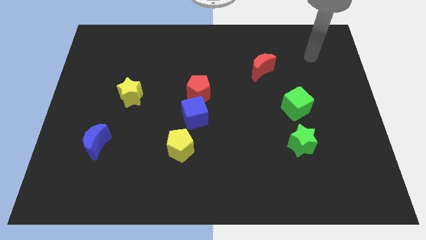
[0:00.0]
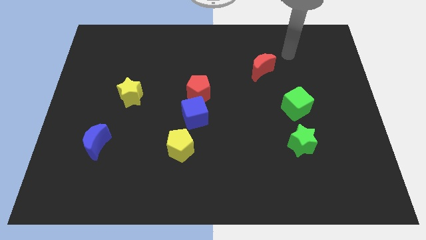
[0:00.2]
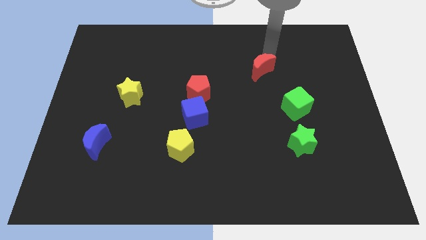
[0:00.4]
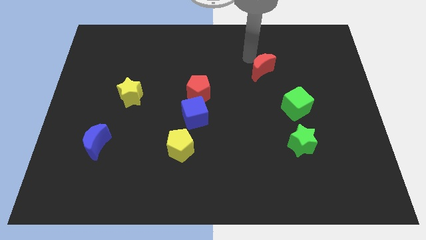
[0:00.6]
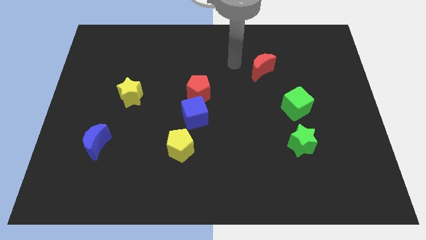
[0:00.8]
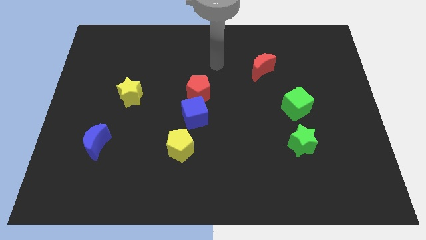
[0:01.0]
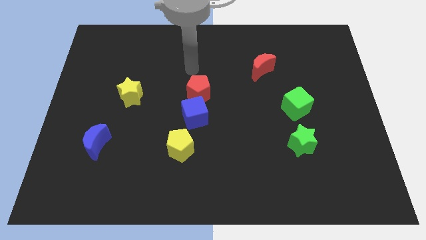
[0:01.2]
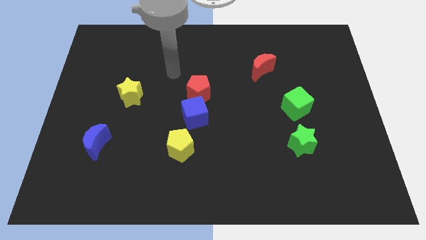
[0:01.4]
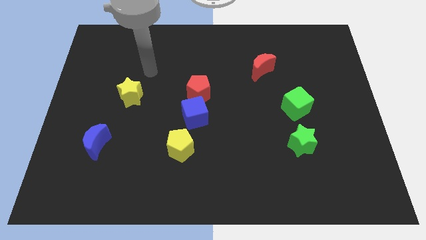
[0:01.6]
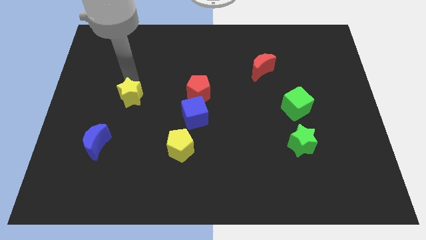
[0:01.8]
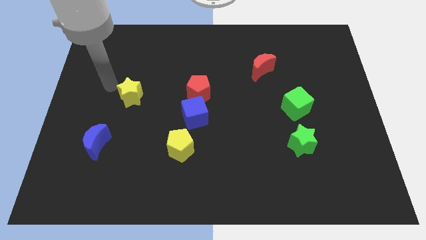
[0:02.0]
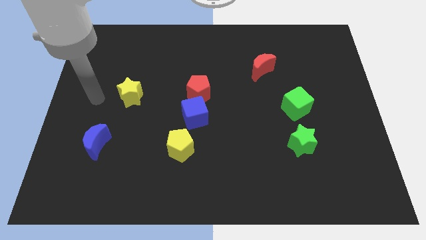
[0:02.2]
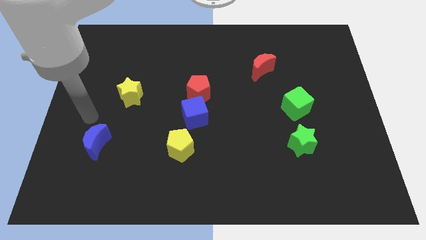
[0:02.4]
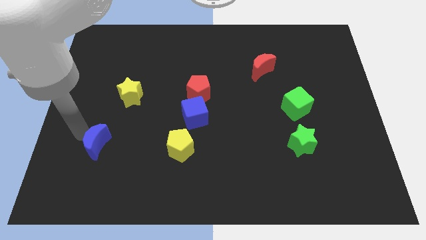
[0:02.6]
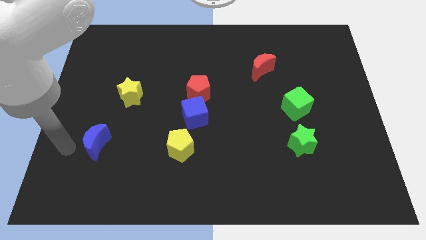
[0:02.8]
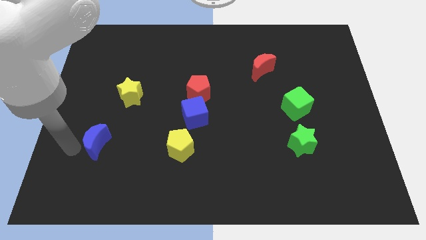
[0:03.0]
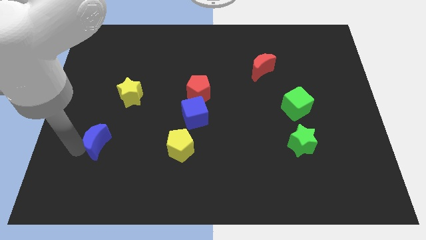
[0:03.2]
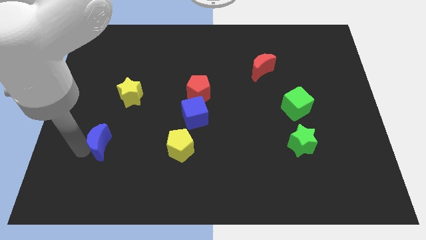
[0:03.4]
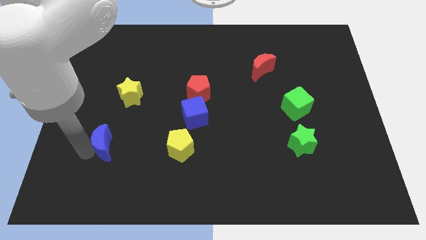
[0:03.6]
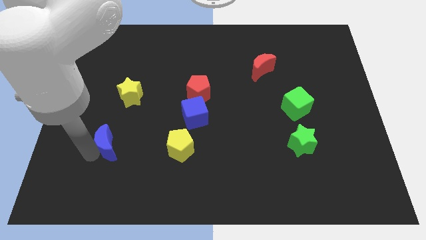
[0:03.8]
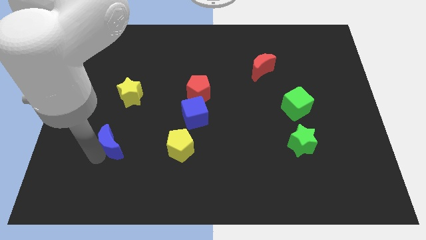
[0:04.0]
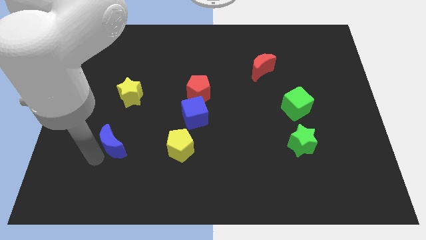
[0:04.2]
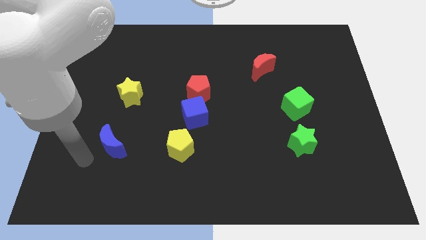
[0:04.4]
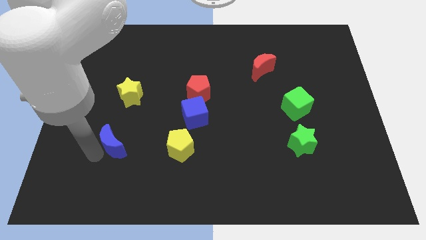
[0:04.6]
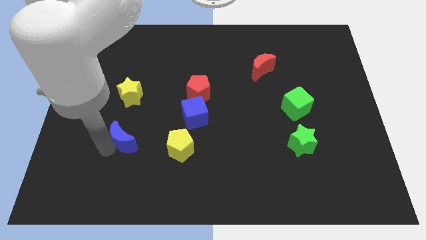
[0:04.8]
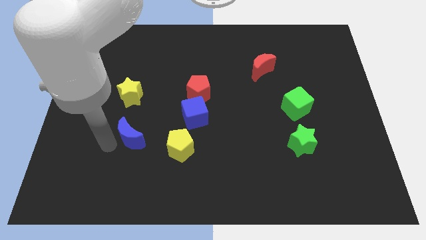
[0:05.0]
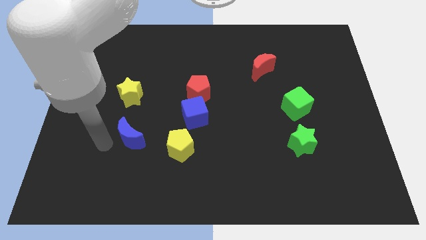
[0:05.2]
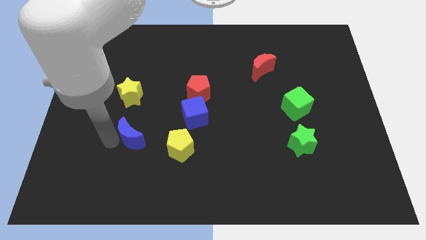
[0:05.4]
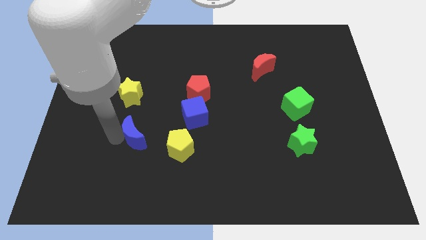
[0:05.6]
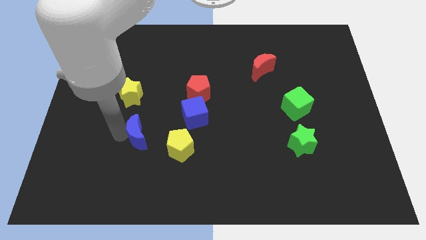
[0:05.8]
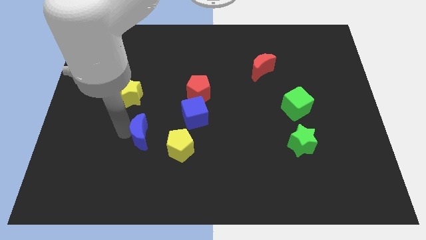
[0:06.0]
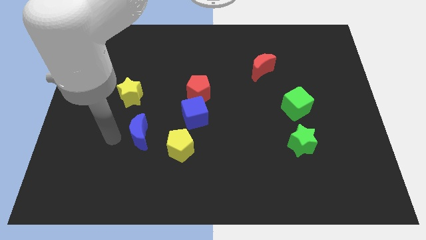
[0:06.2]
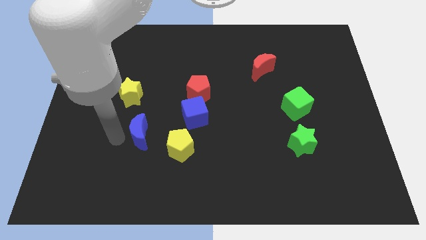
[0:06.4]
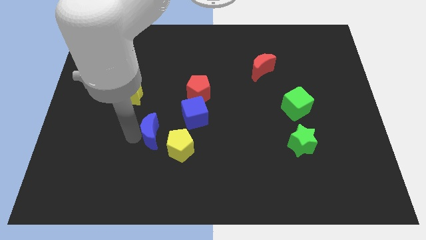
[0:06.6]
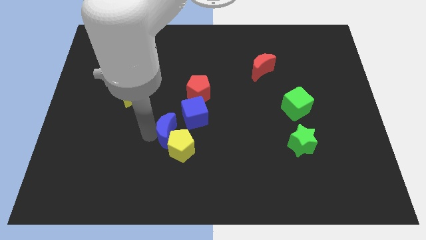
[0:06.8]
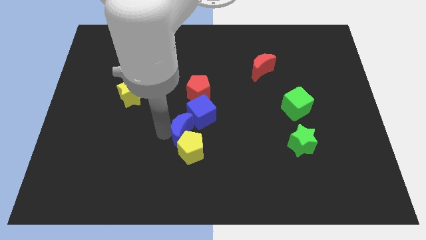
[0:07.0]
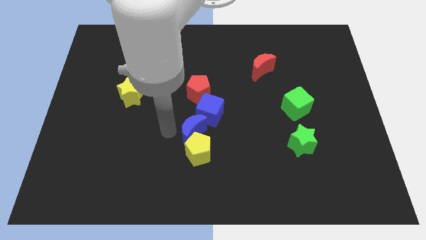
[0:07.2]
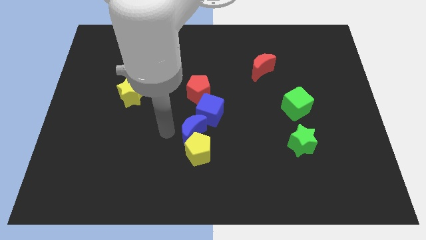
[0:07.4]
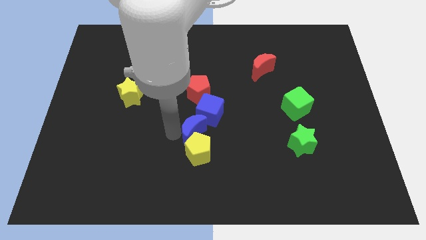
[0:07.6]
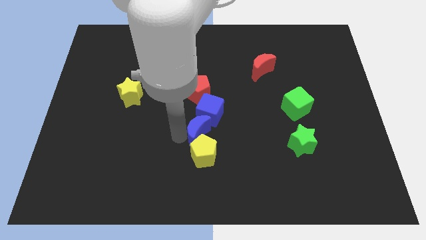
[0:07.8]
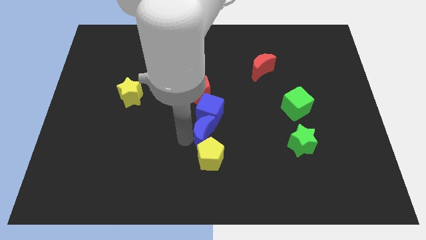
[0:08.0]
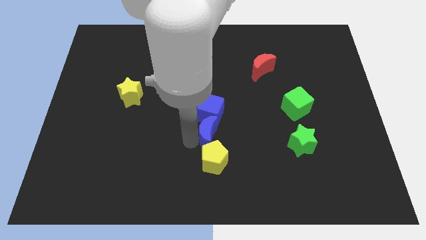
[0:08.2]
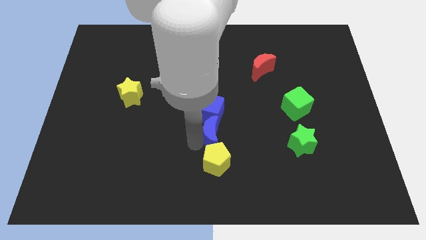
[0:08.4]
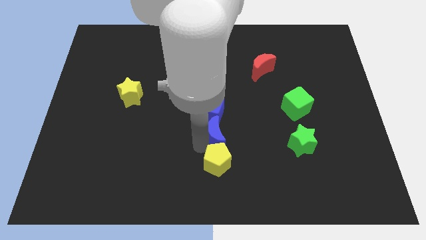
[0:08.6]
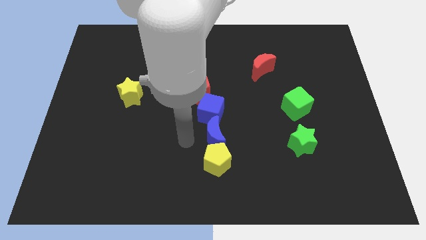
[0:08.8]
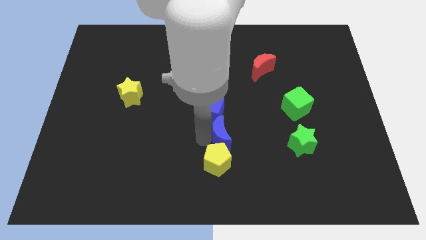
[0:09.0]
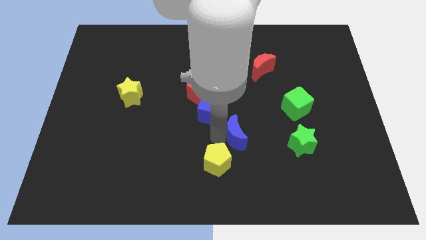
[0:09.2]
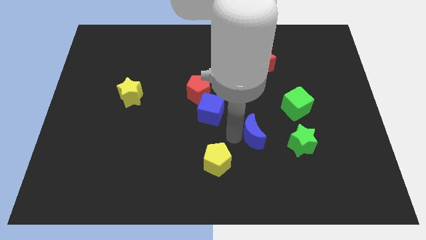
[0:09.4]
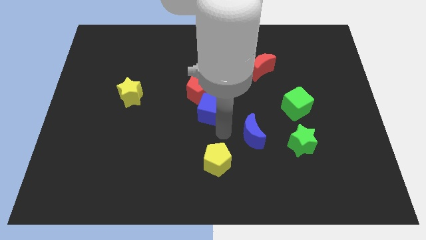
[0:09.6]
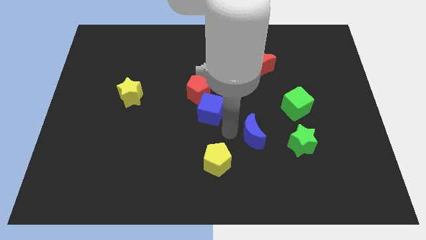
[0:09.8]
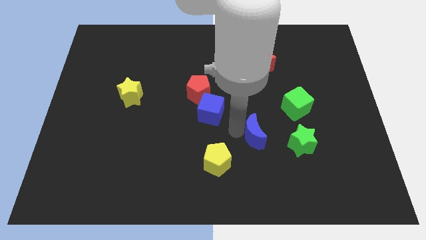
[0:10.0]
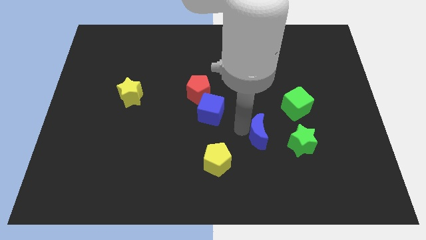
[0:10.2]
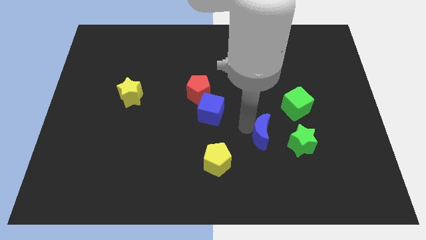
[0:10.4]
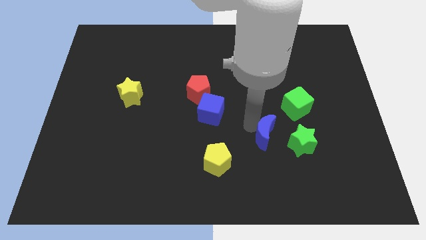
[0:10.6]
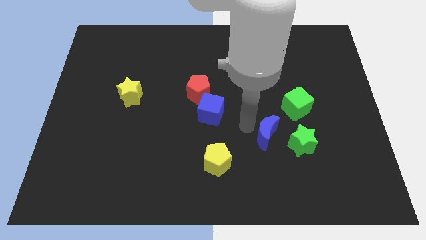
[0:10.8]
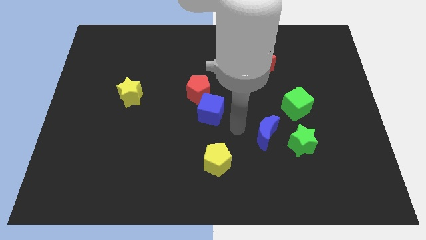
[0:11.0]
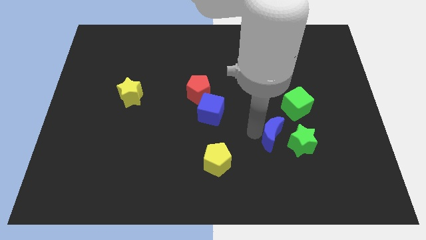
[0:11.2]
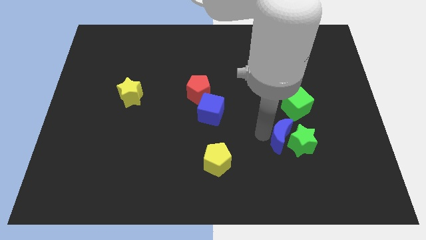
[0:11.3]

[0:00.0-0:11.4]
push the blue moon towards the green star

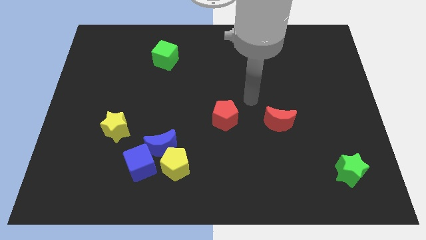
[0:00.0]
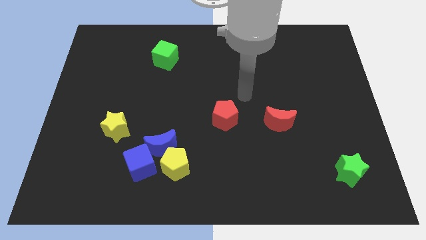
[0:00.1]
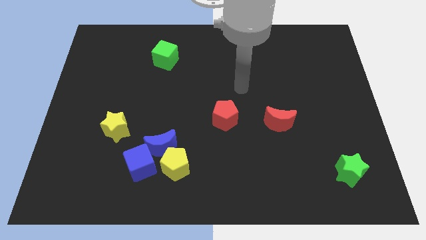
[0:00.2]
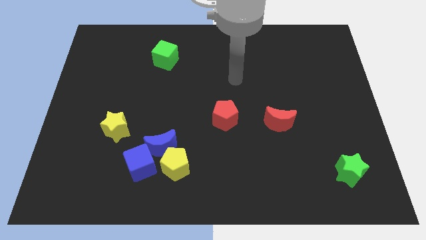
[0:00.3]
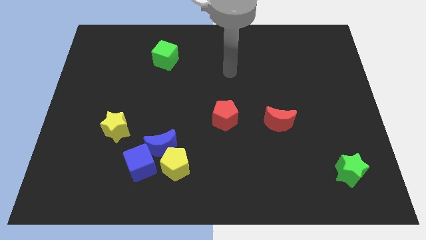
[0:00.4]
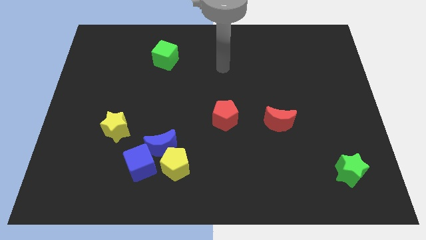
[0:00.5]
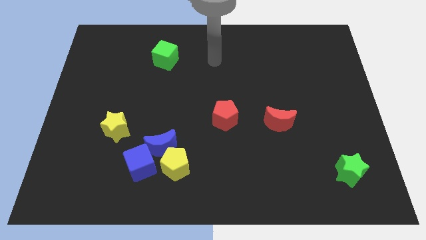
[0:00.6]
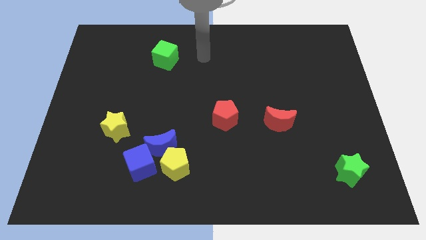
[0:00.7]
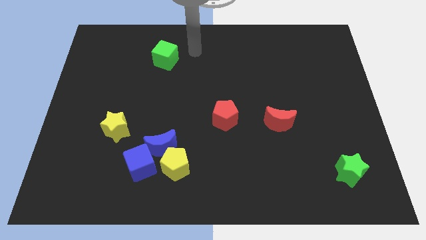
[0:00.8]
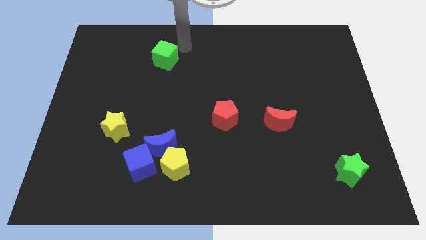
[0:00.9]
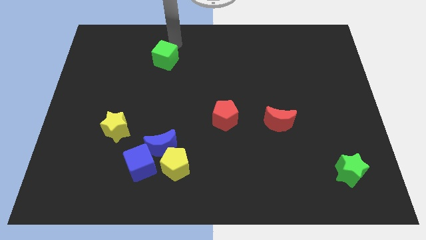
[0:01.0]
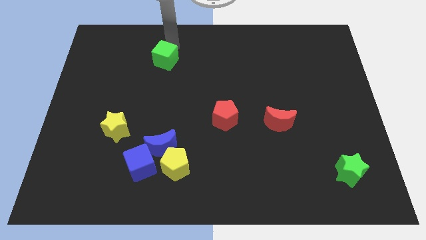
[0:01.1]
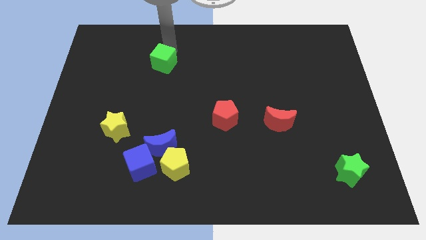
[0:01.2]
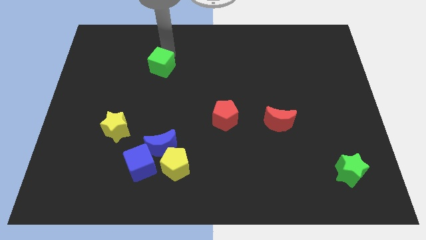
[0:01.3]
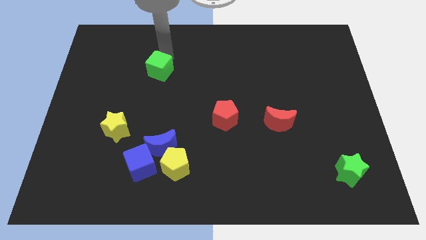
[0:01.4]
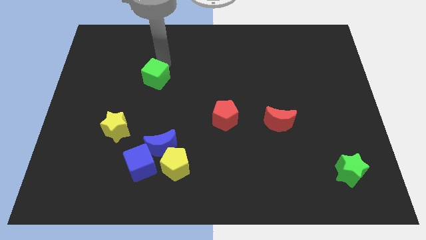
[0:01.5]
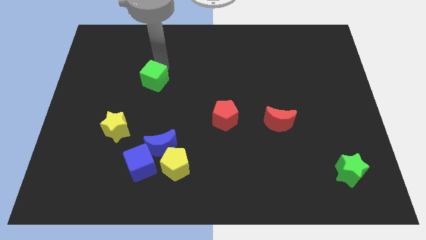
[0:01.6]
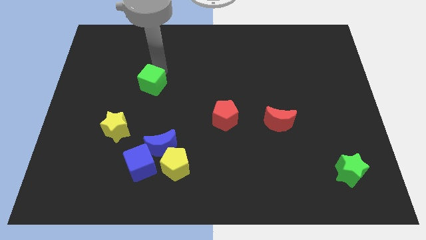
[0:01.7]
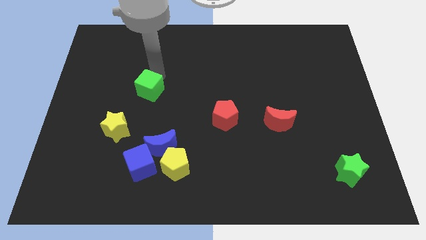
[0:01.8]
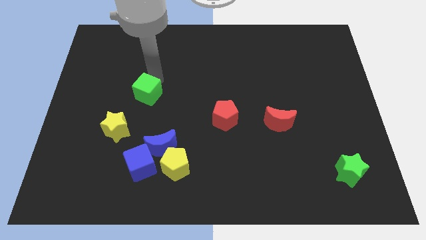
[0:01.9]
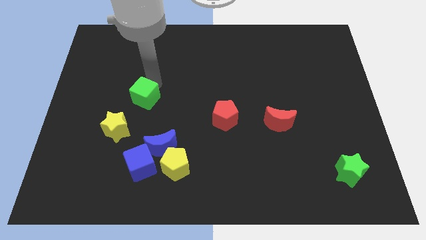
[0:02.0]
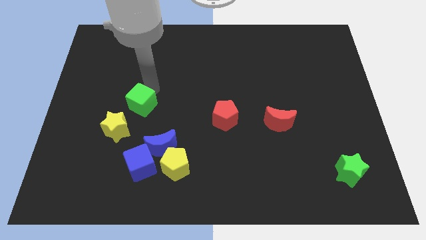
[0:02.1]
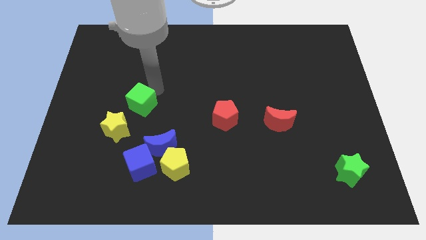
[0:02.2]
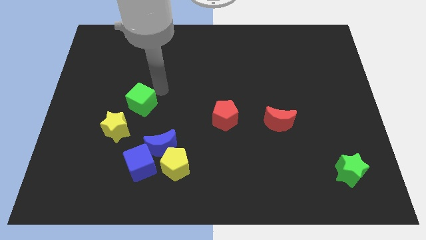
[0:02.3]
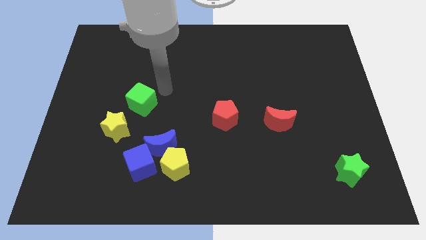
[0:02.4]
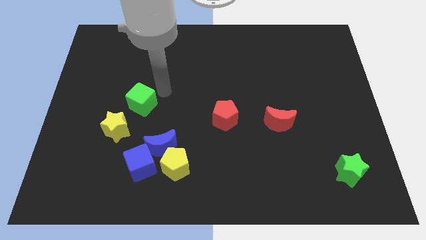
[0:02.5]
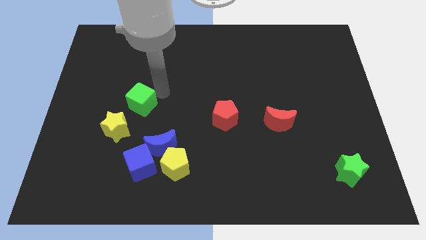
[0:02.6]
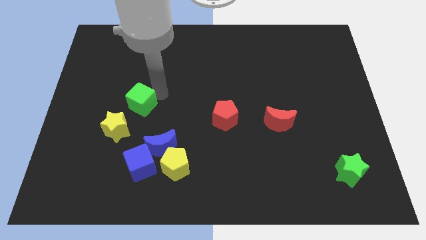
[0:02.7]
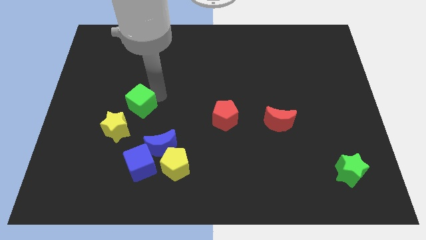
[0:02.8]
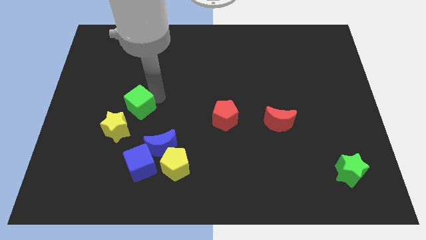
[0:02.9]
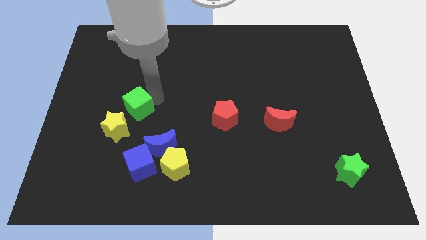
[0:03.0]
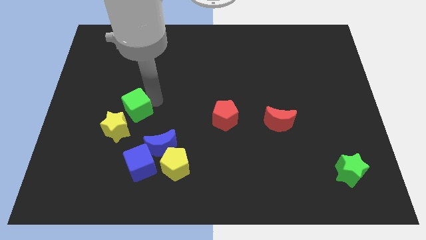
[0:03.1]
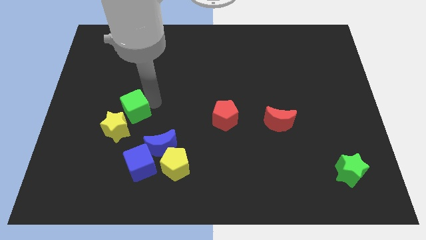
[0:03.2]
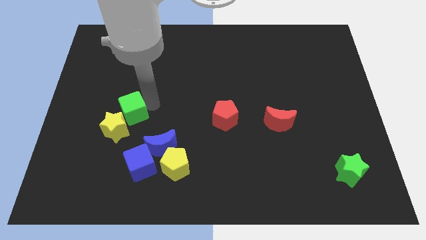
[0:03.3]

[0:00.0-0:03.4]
move the green cube next to the yellow star
